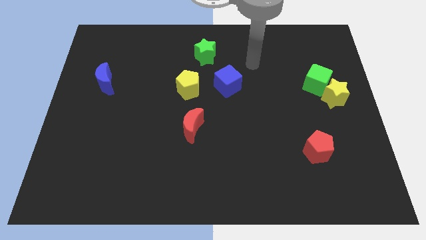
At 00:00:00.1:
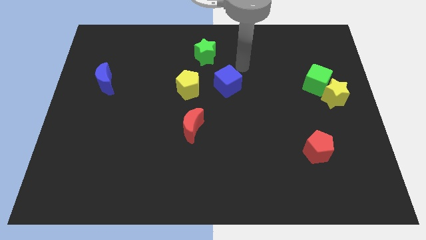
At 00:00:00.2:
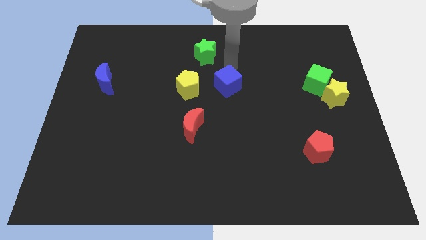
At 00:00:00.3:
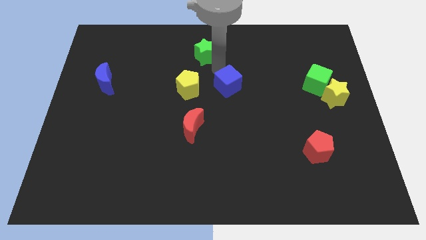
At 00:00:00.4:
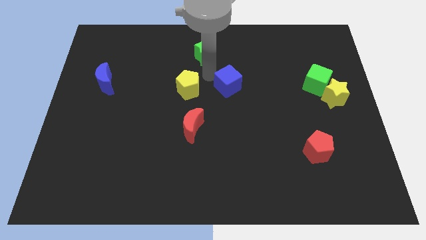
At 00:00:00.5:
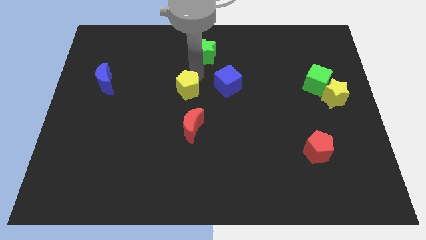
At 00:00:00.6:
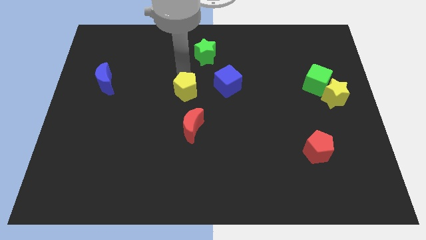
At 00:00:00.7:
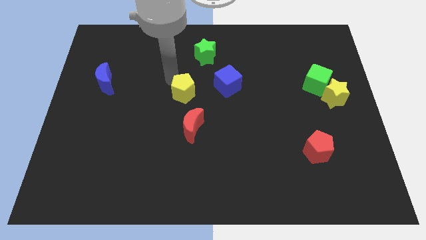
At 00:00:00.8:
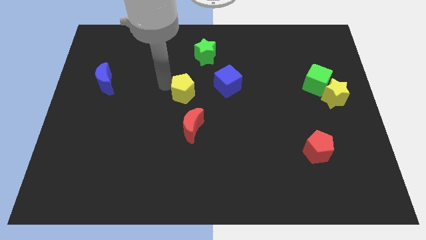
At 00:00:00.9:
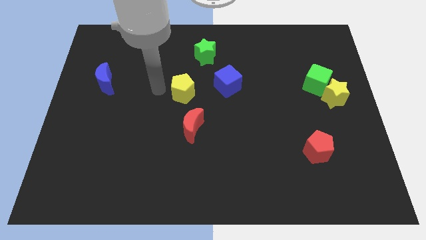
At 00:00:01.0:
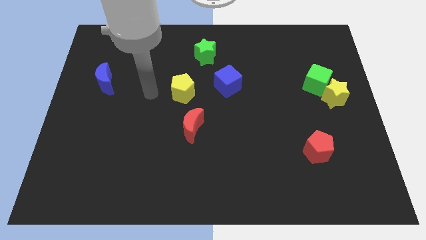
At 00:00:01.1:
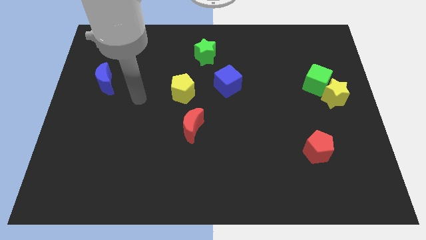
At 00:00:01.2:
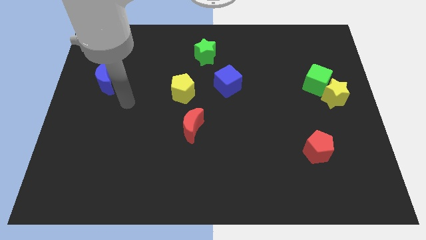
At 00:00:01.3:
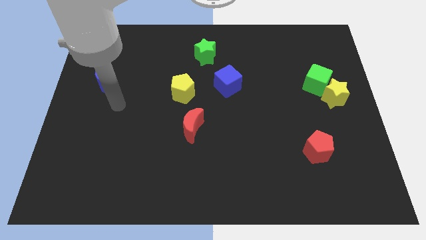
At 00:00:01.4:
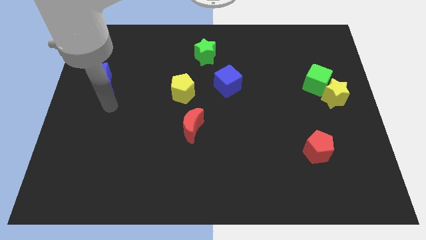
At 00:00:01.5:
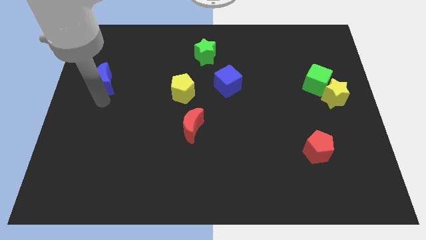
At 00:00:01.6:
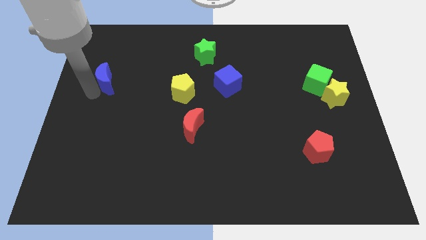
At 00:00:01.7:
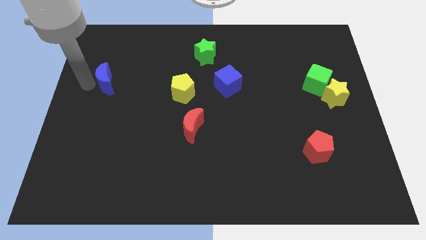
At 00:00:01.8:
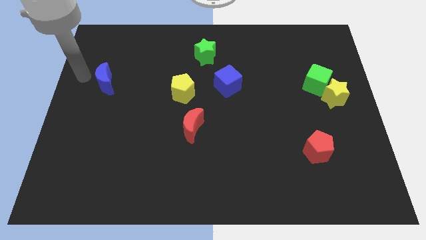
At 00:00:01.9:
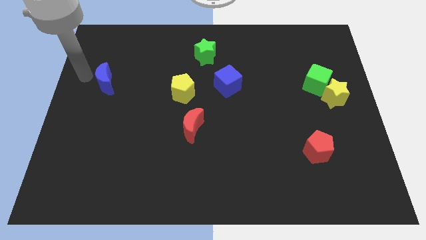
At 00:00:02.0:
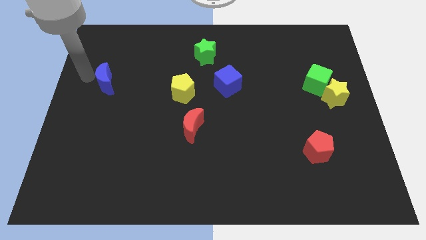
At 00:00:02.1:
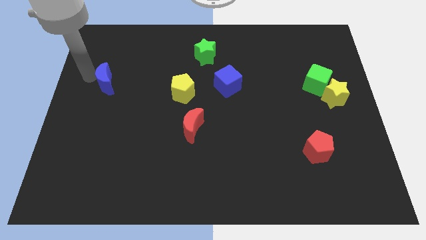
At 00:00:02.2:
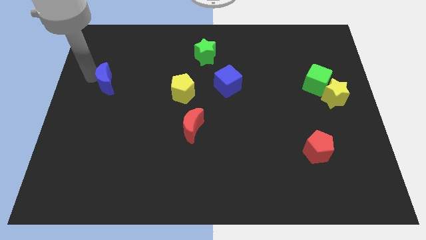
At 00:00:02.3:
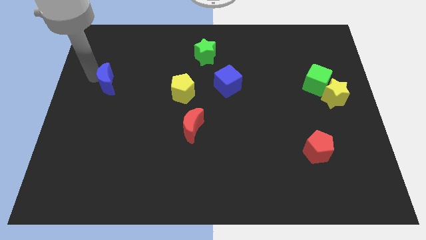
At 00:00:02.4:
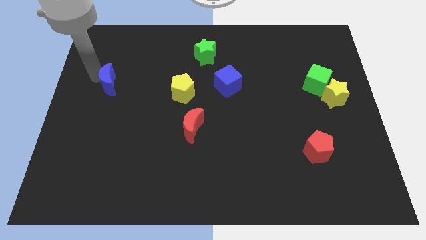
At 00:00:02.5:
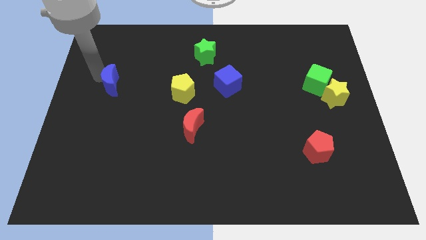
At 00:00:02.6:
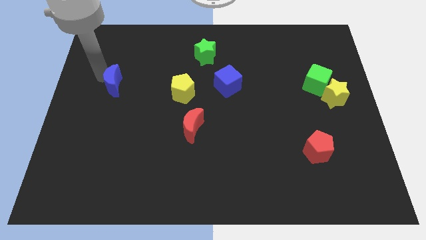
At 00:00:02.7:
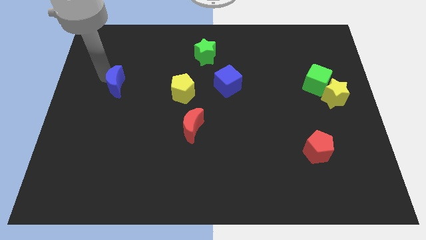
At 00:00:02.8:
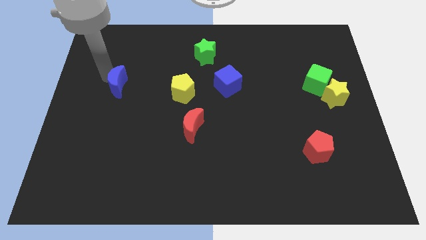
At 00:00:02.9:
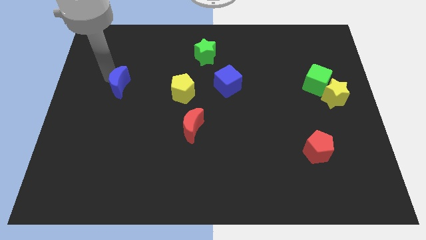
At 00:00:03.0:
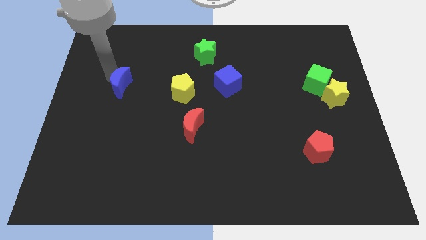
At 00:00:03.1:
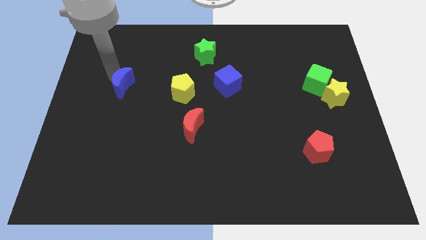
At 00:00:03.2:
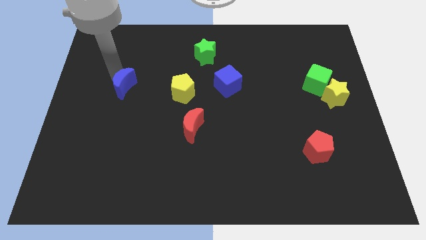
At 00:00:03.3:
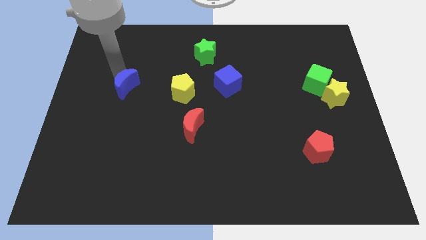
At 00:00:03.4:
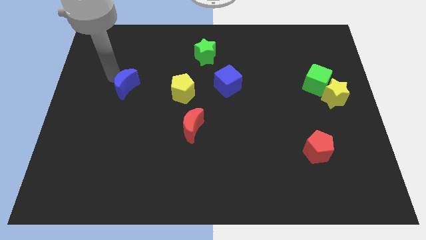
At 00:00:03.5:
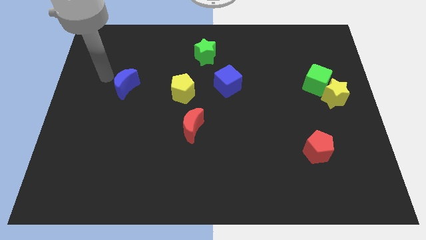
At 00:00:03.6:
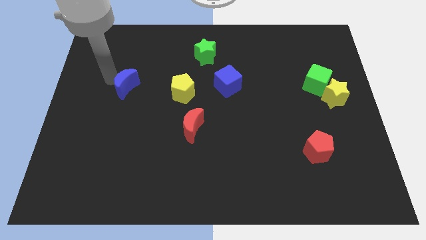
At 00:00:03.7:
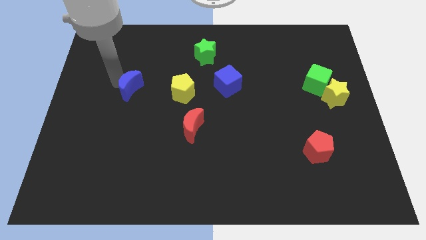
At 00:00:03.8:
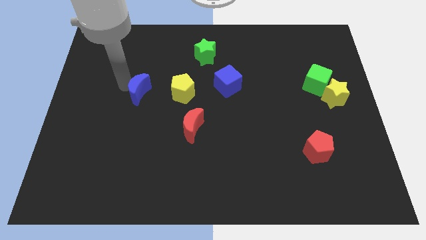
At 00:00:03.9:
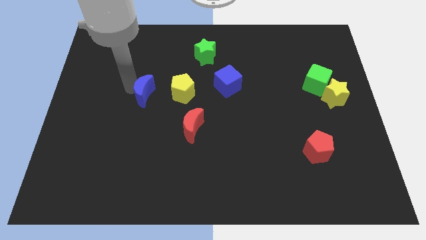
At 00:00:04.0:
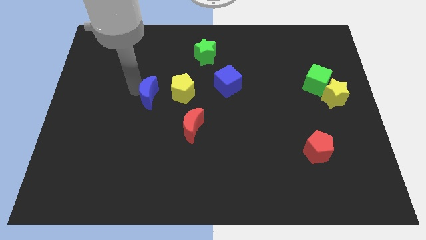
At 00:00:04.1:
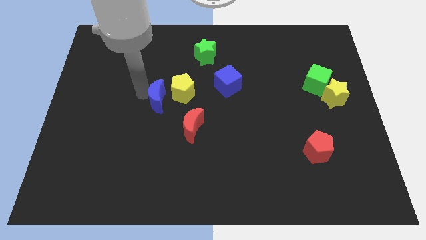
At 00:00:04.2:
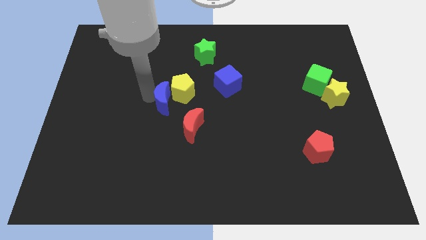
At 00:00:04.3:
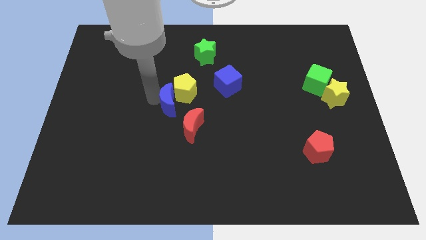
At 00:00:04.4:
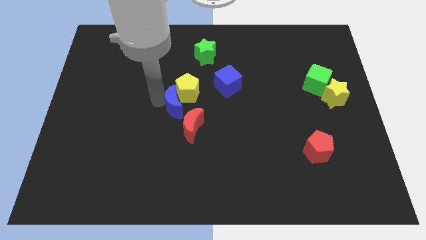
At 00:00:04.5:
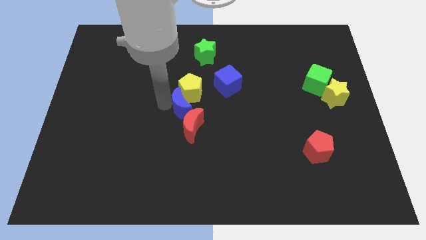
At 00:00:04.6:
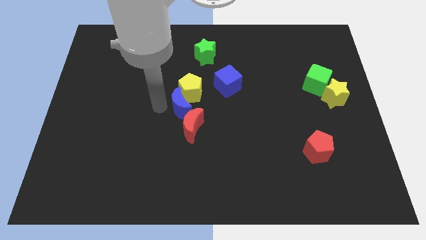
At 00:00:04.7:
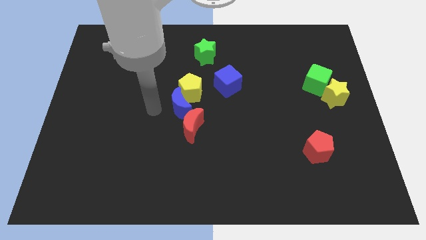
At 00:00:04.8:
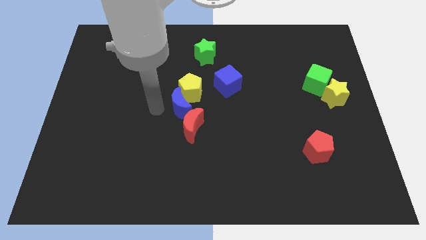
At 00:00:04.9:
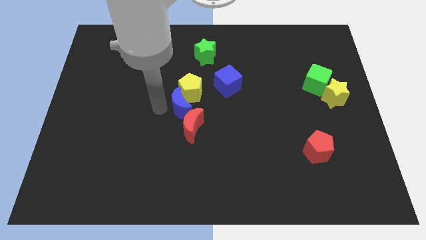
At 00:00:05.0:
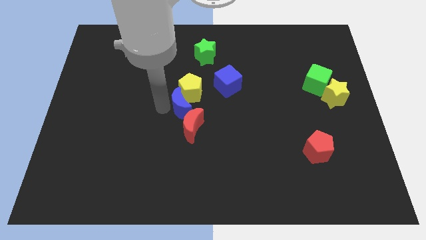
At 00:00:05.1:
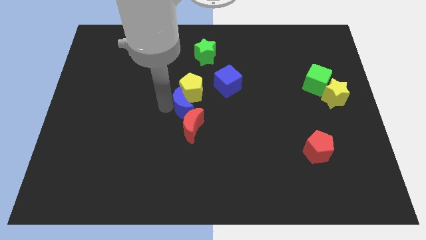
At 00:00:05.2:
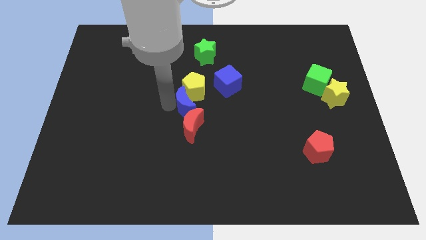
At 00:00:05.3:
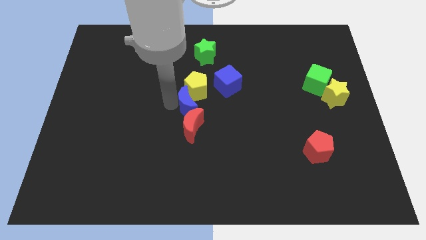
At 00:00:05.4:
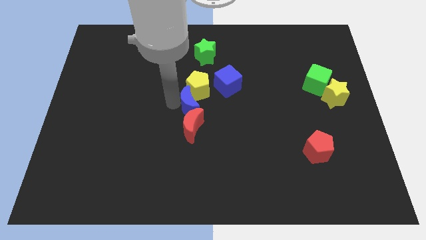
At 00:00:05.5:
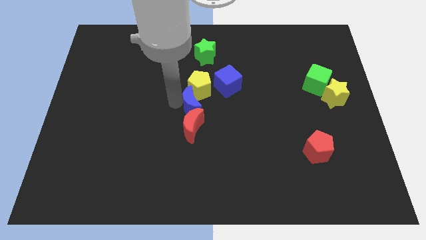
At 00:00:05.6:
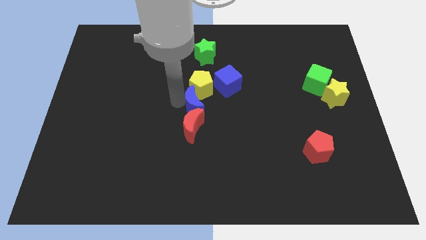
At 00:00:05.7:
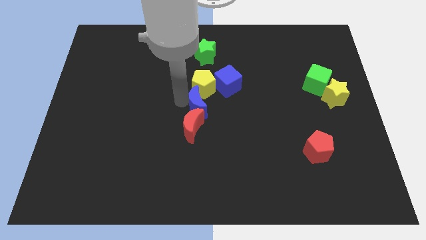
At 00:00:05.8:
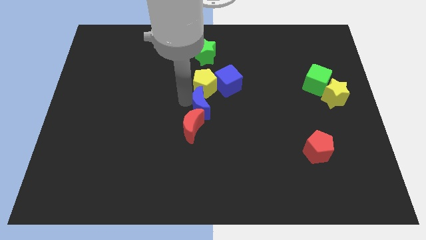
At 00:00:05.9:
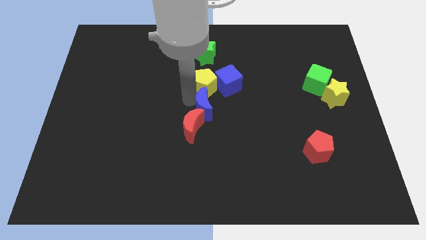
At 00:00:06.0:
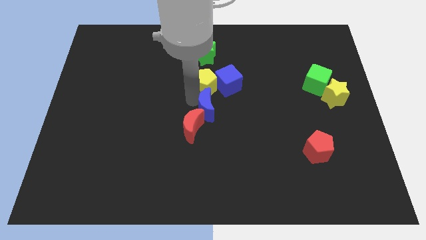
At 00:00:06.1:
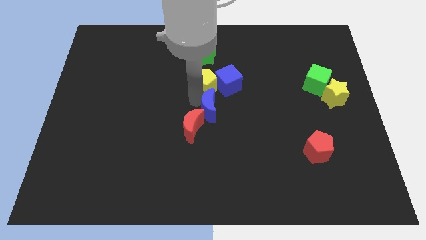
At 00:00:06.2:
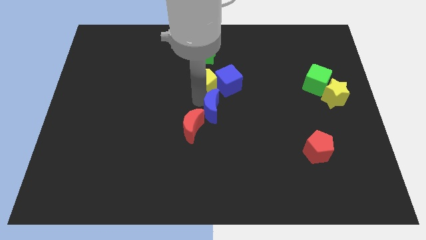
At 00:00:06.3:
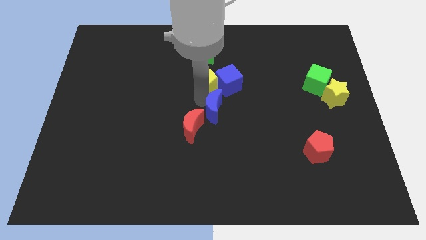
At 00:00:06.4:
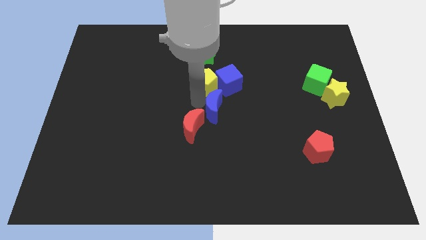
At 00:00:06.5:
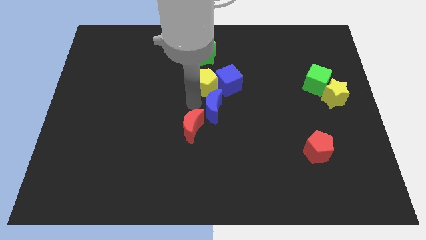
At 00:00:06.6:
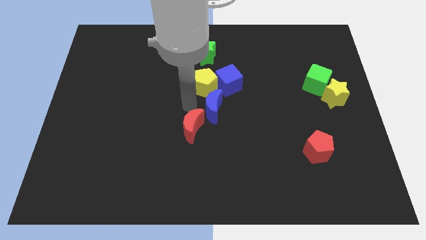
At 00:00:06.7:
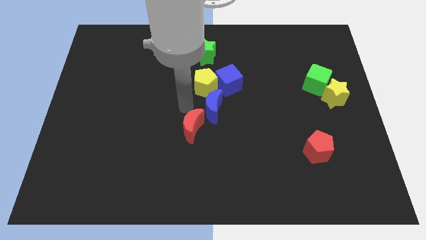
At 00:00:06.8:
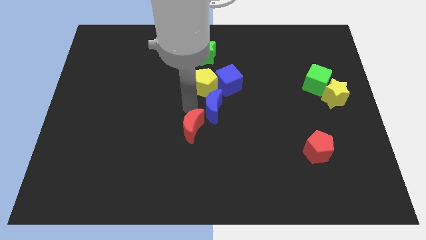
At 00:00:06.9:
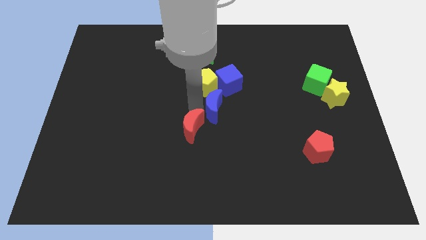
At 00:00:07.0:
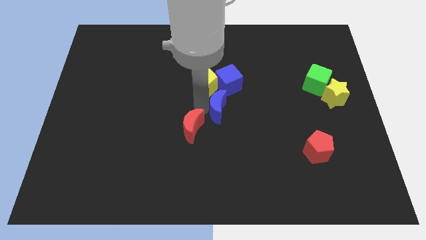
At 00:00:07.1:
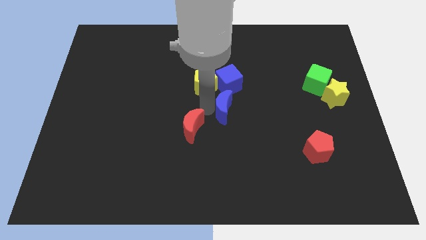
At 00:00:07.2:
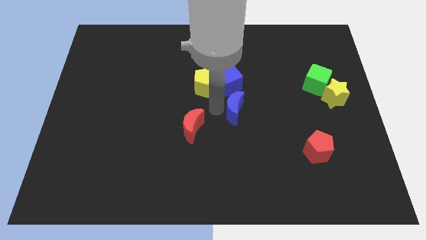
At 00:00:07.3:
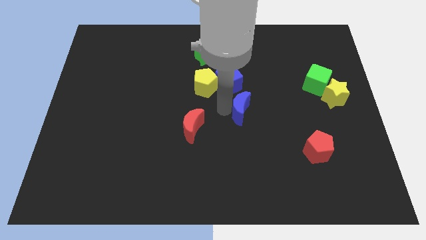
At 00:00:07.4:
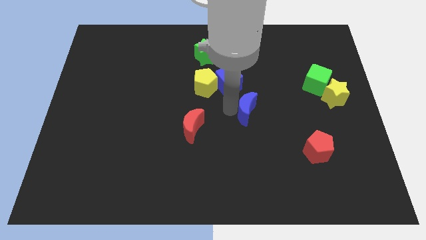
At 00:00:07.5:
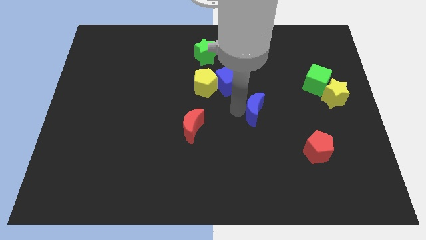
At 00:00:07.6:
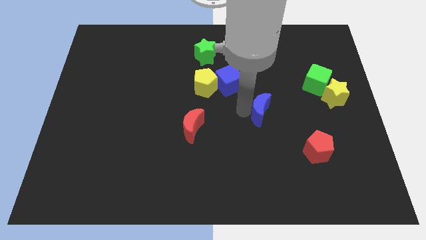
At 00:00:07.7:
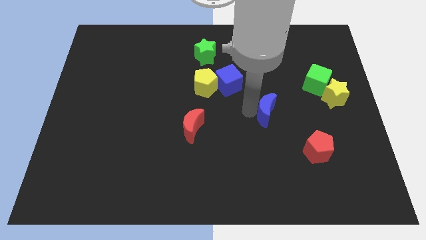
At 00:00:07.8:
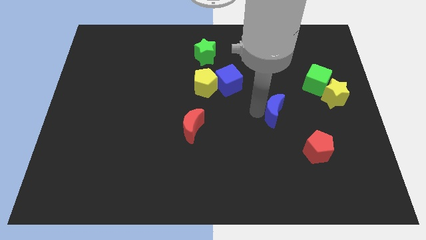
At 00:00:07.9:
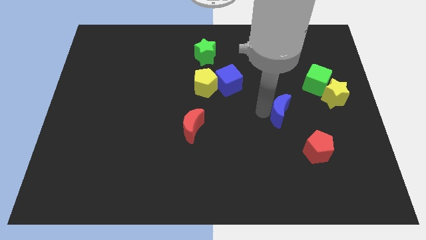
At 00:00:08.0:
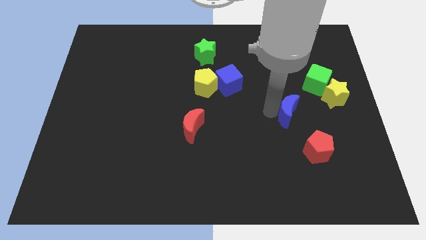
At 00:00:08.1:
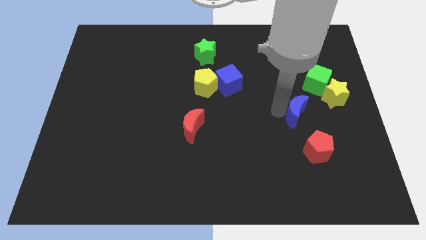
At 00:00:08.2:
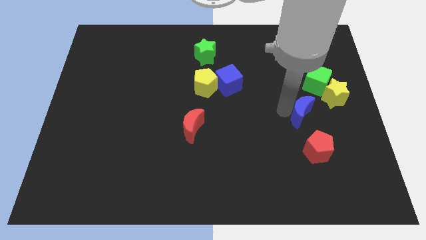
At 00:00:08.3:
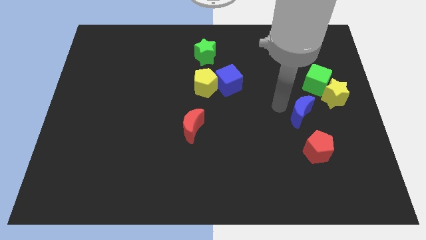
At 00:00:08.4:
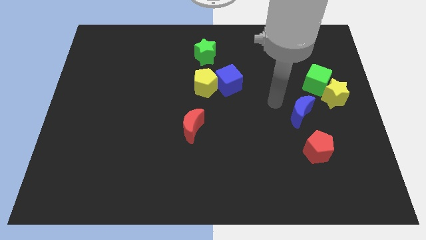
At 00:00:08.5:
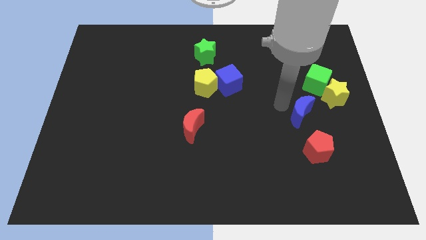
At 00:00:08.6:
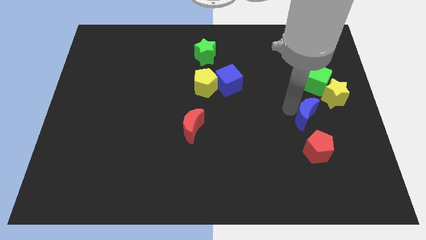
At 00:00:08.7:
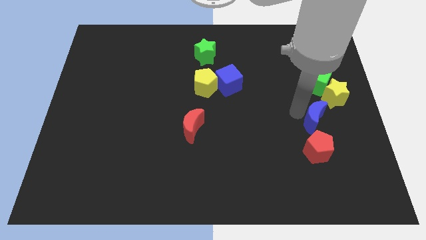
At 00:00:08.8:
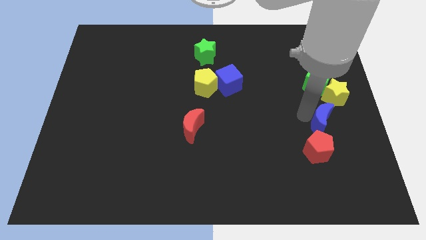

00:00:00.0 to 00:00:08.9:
move the blue moon to the top right of the red pentagon
